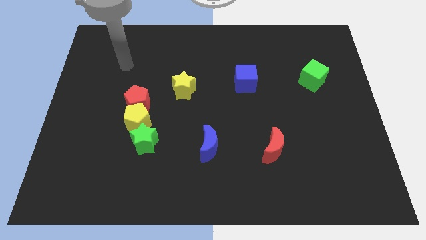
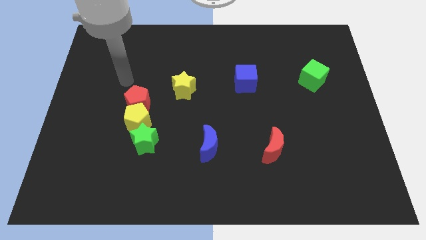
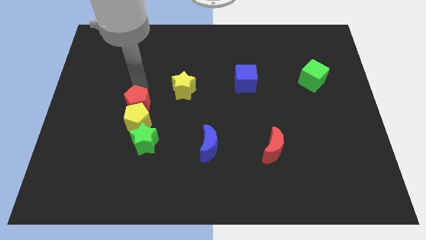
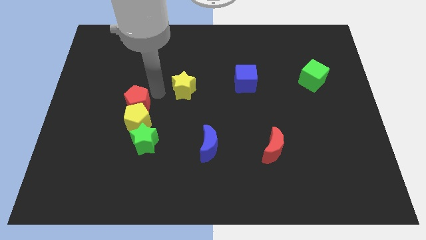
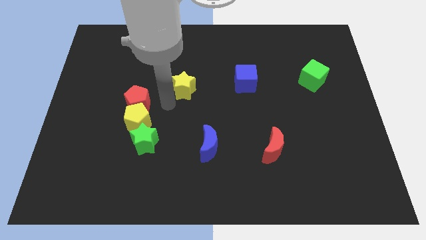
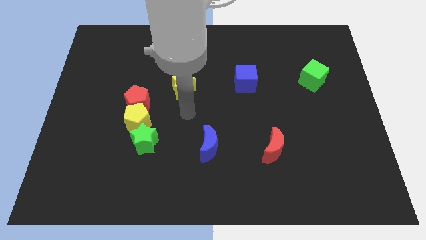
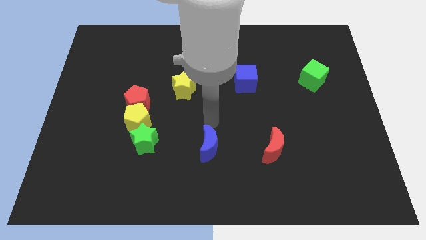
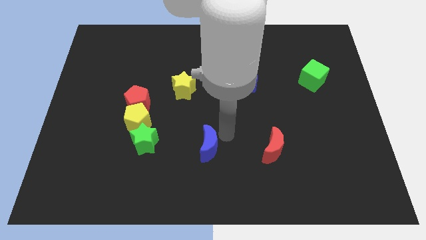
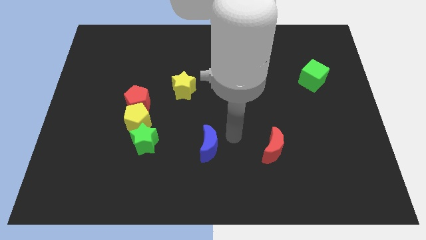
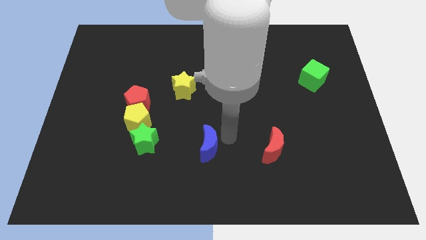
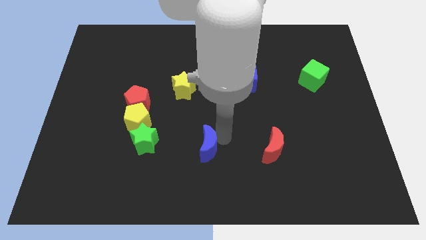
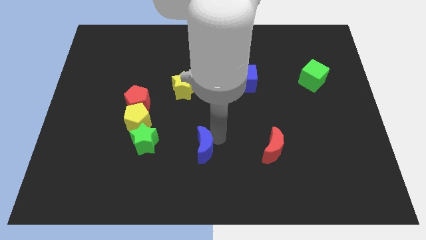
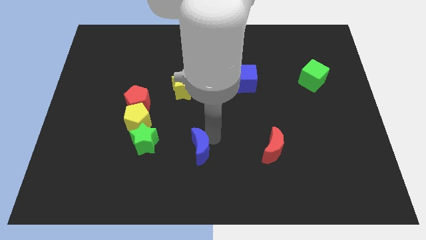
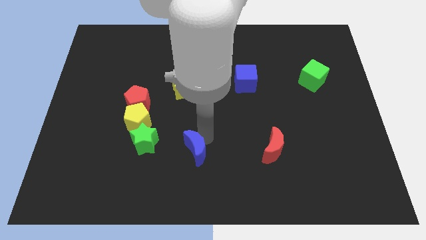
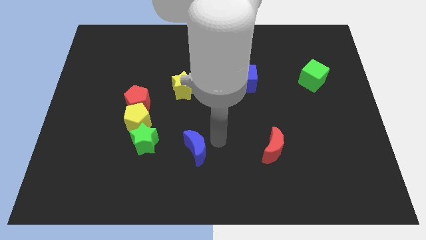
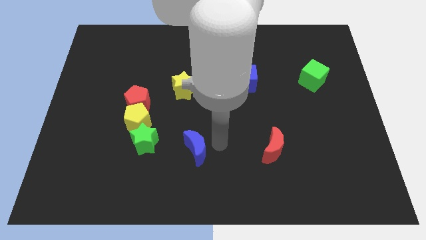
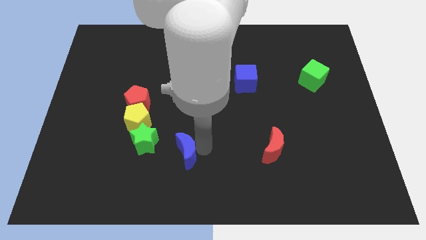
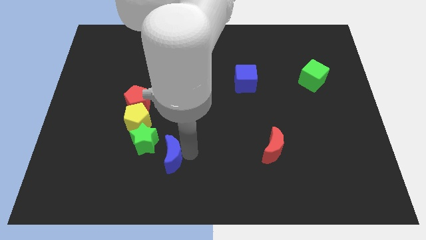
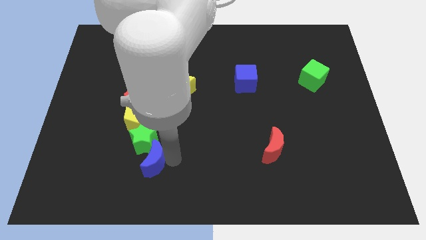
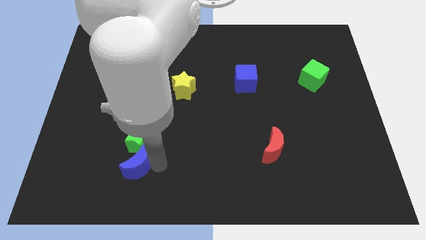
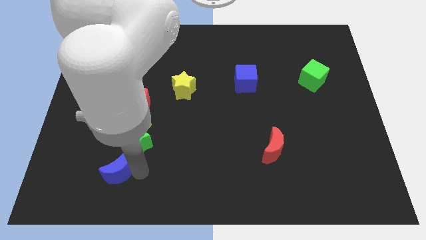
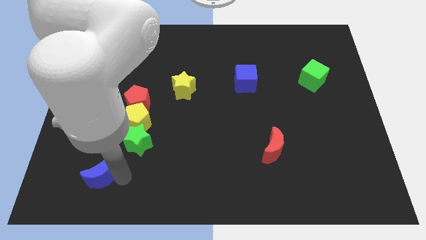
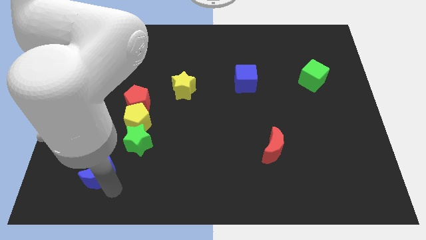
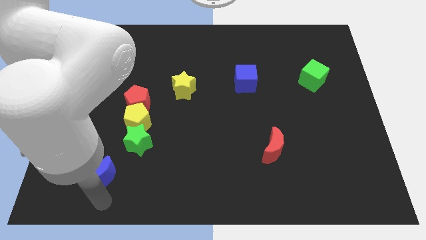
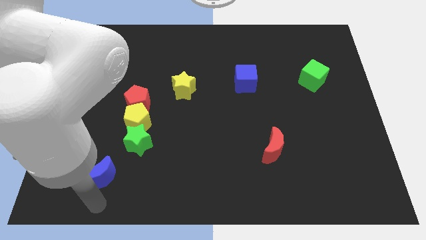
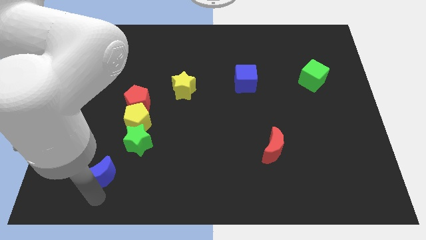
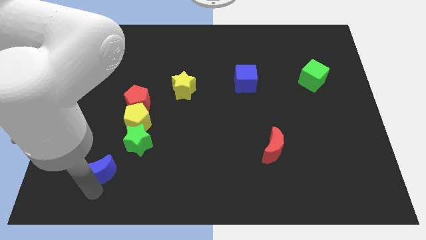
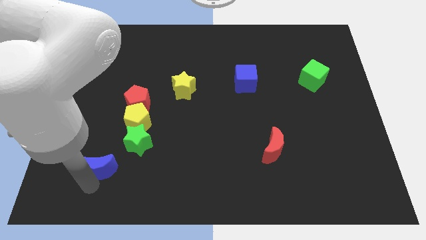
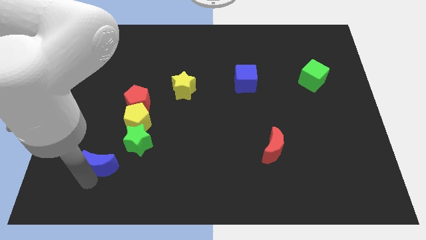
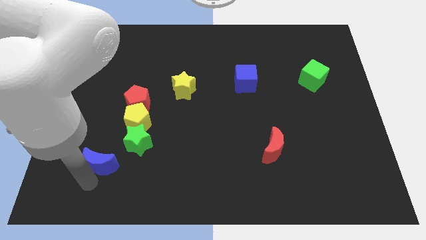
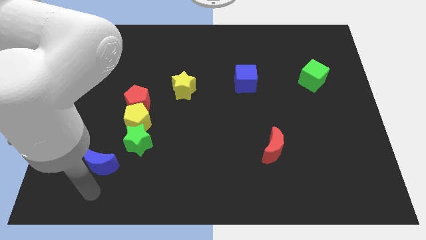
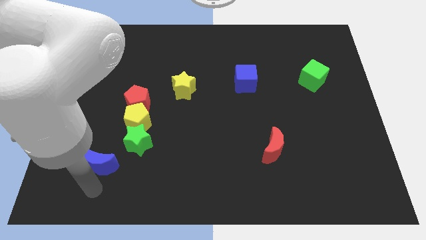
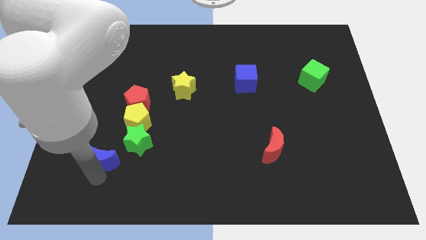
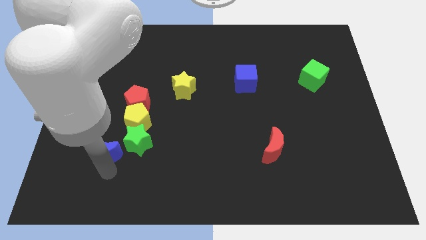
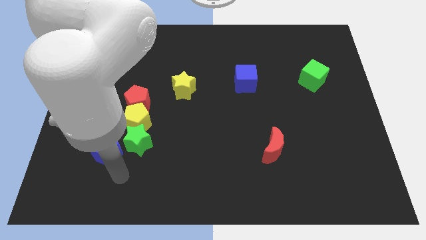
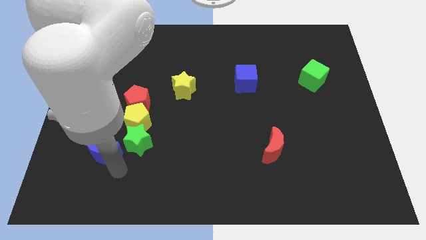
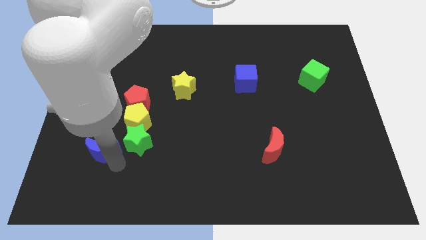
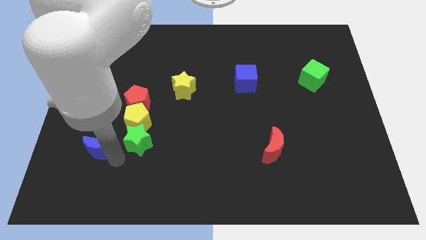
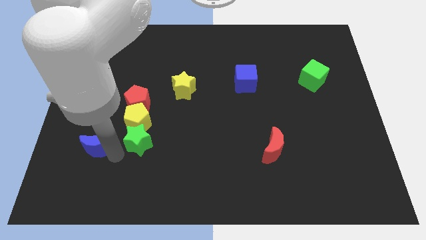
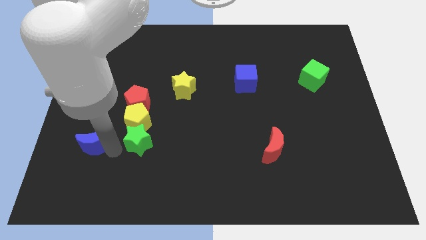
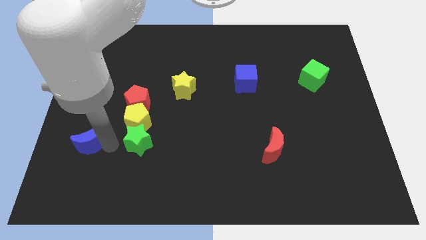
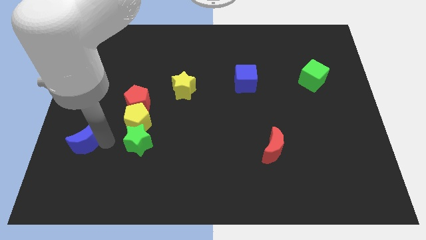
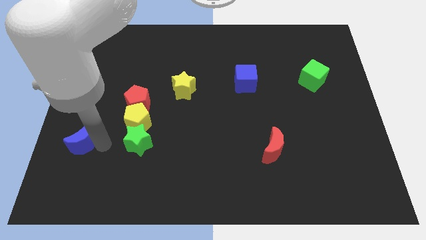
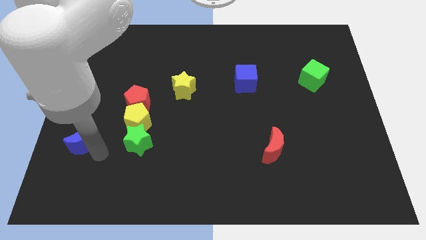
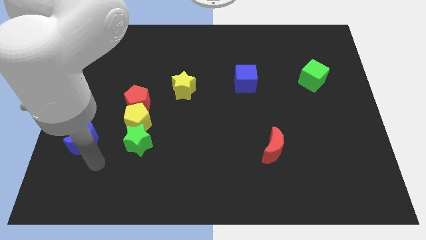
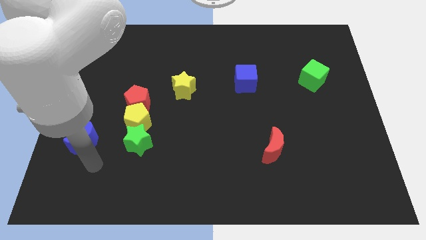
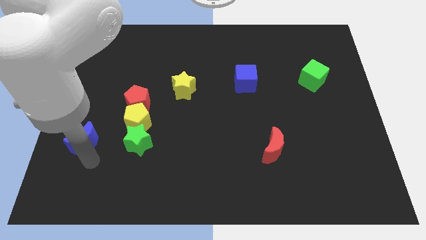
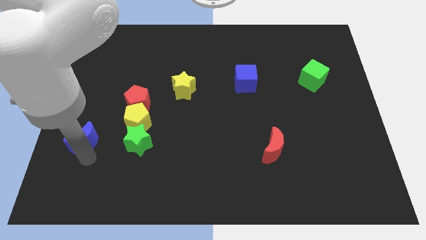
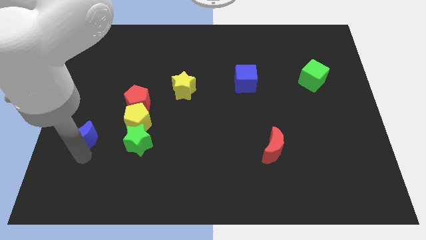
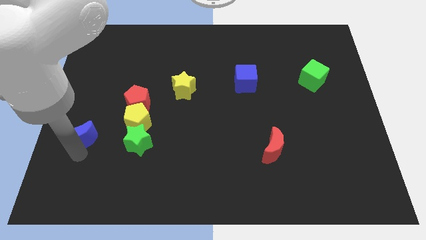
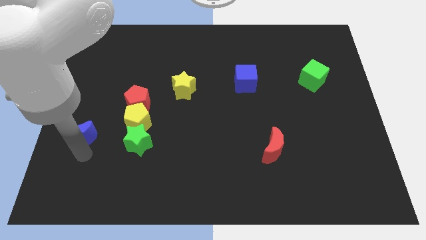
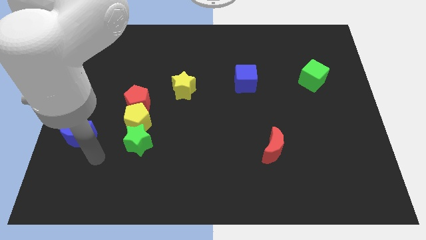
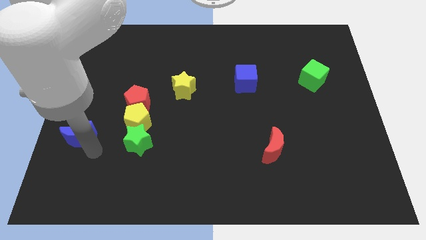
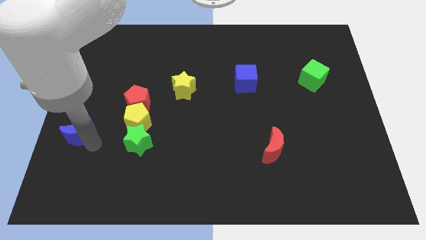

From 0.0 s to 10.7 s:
slide the blue moon to the left side

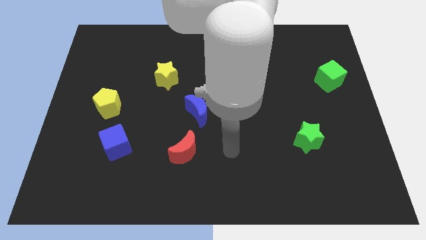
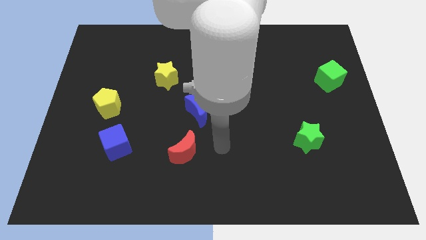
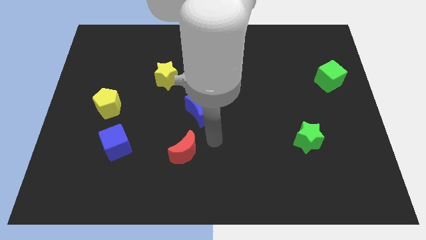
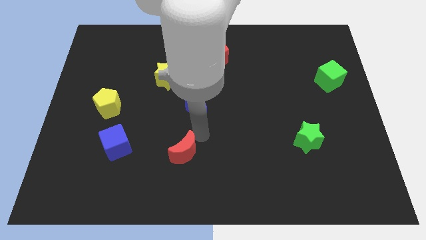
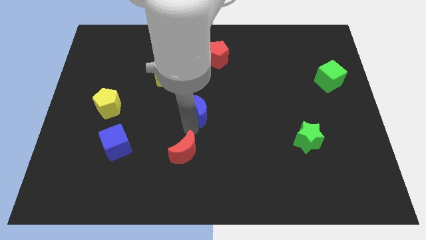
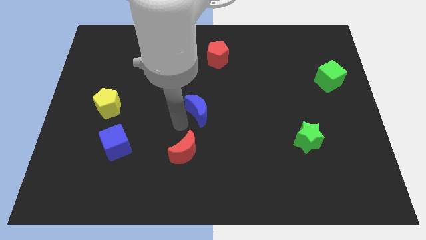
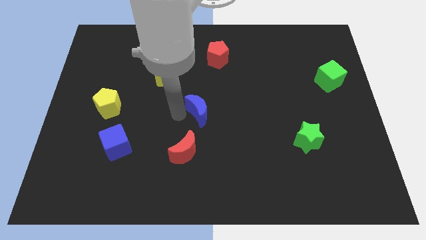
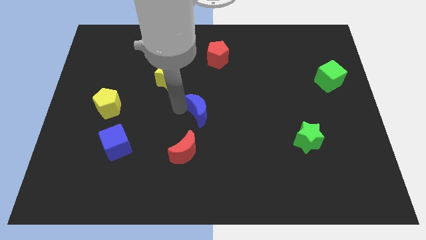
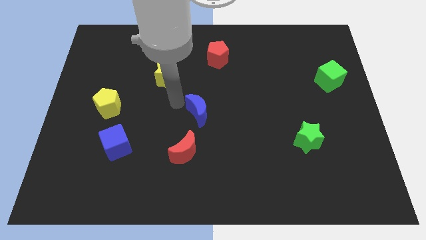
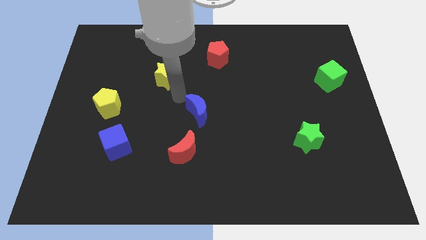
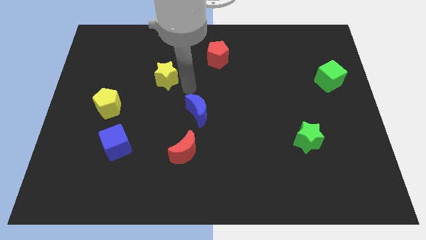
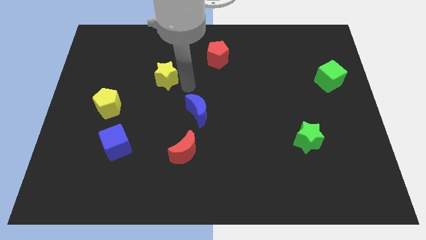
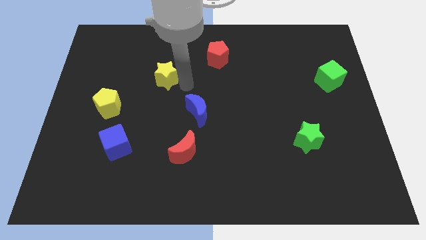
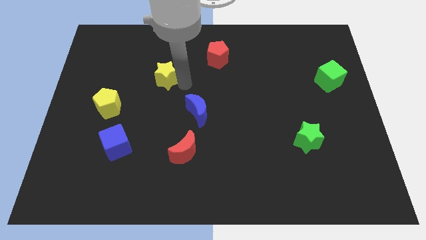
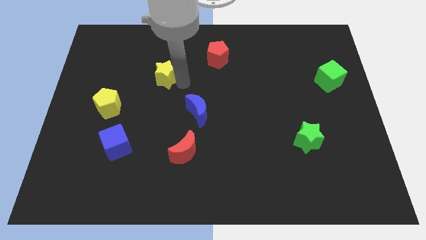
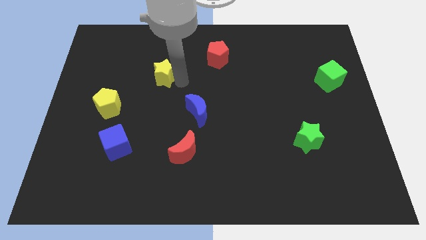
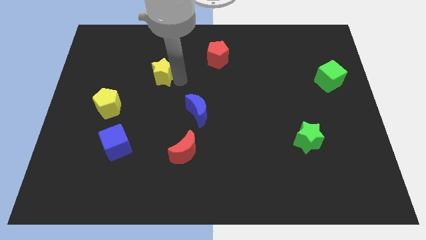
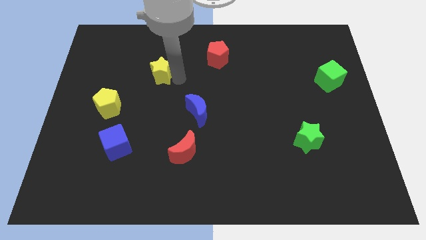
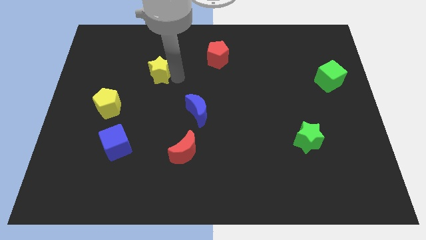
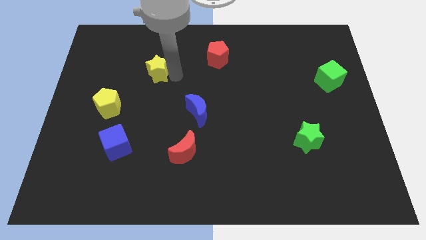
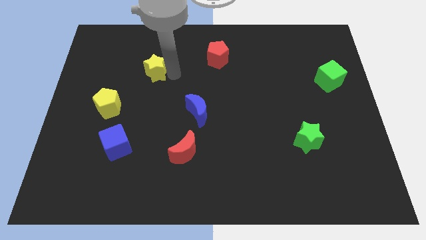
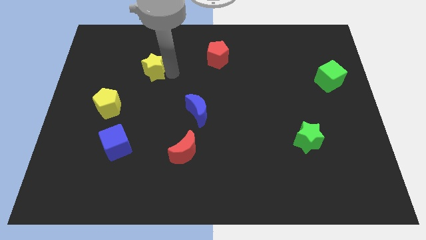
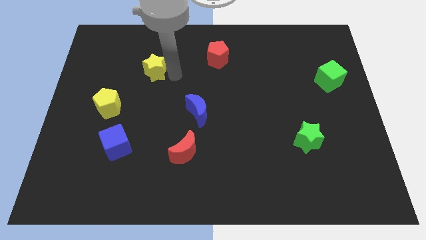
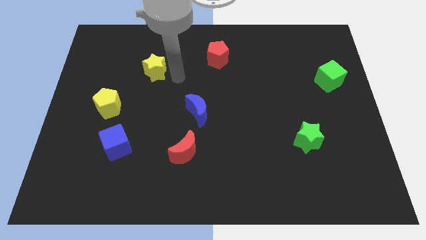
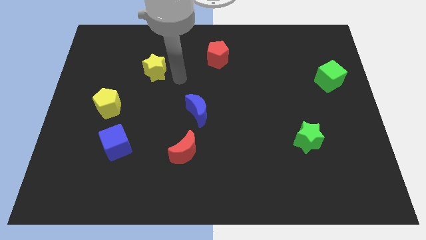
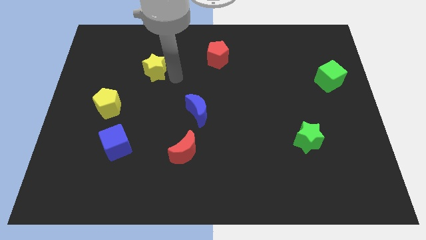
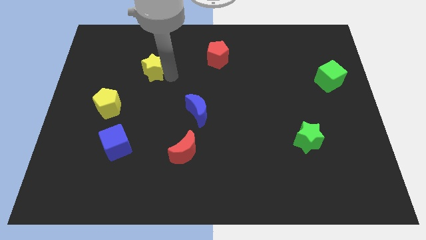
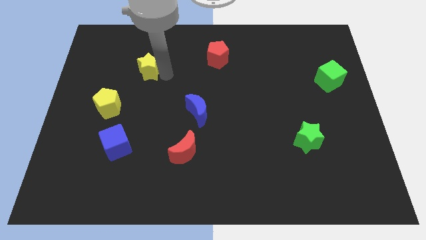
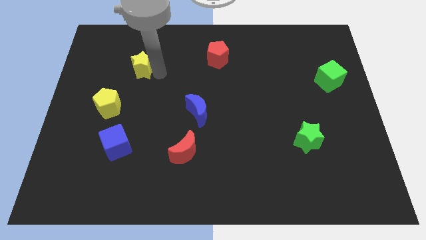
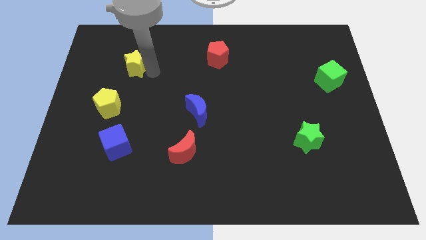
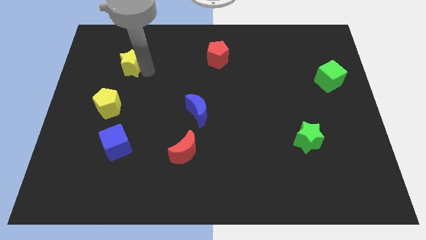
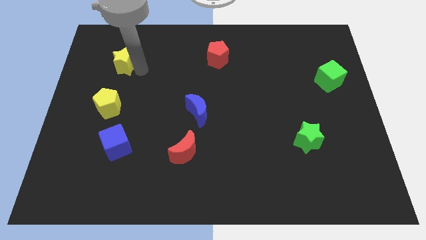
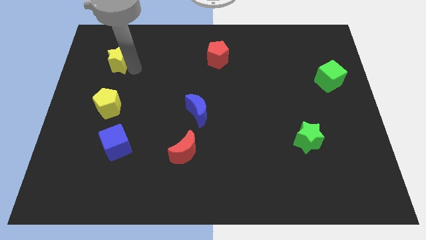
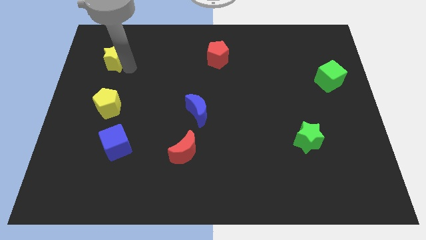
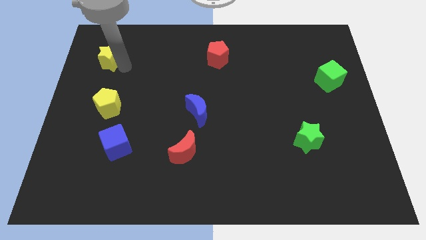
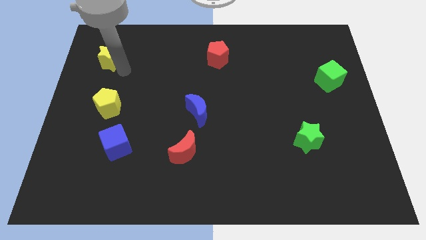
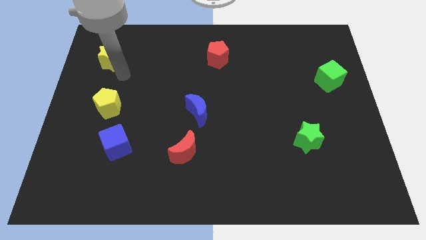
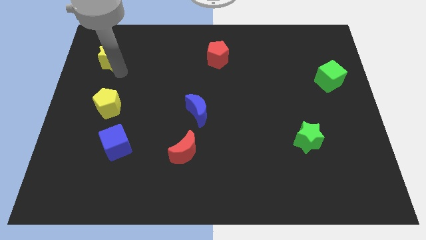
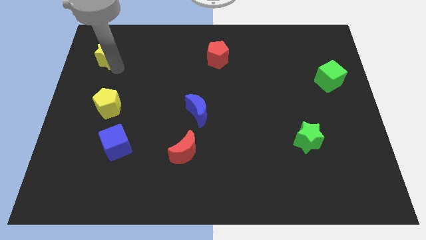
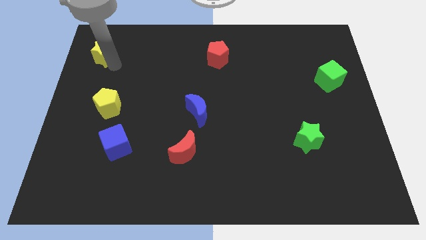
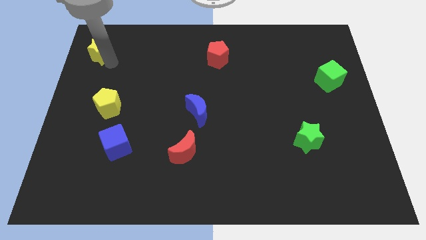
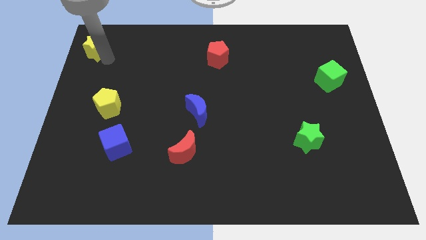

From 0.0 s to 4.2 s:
push the yellow star to the top left corner
